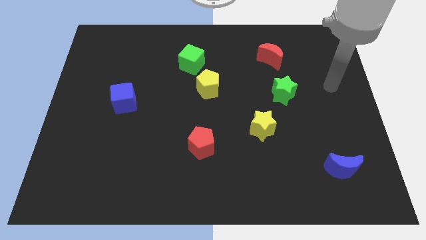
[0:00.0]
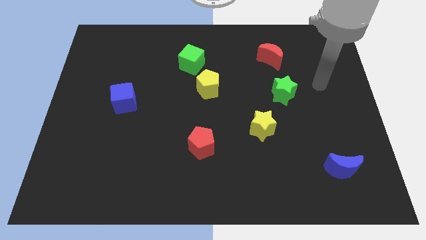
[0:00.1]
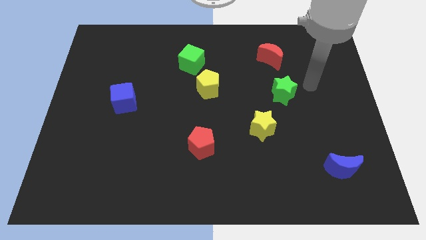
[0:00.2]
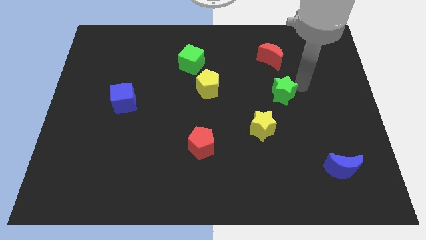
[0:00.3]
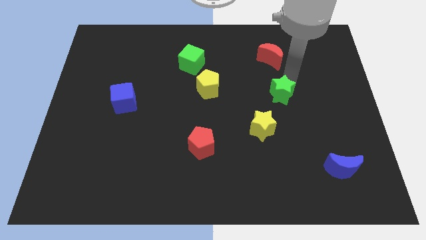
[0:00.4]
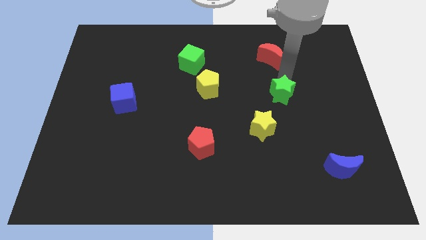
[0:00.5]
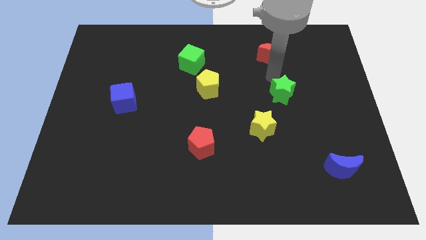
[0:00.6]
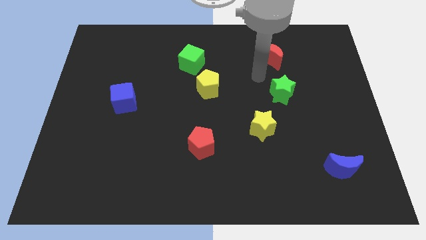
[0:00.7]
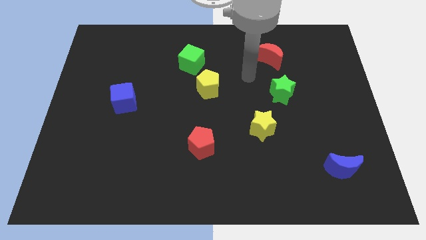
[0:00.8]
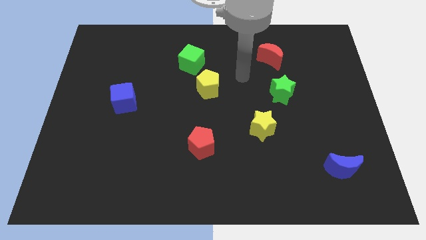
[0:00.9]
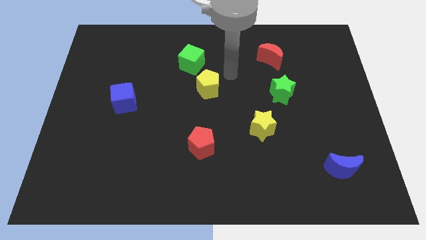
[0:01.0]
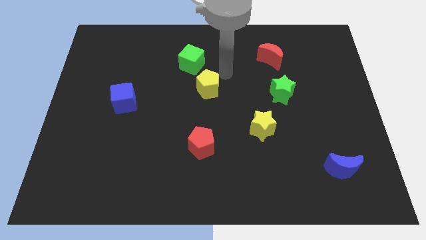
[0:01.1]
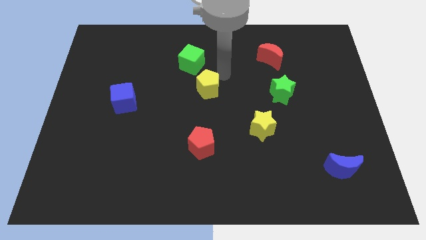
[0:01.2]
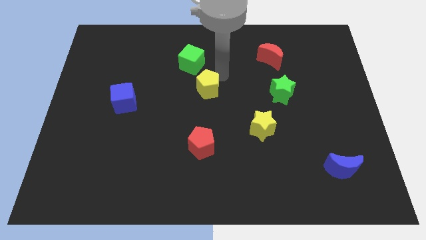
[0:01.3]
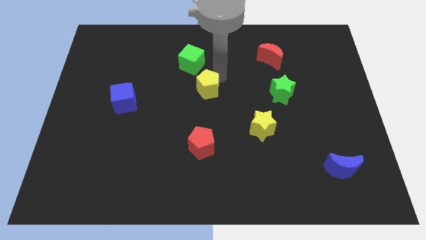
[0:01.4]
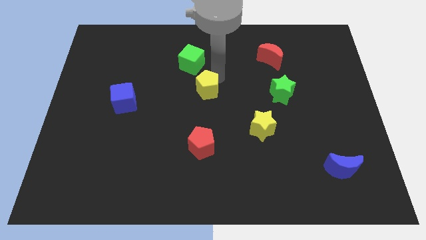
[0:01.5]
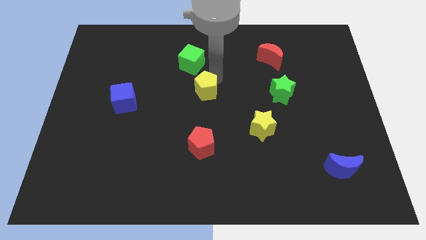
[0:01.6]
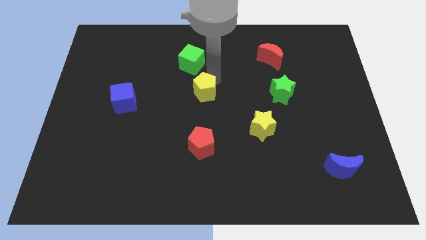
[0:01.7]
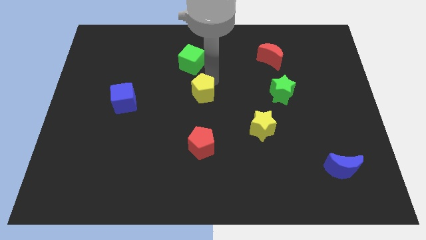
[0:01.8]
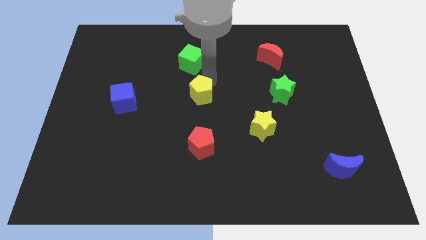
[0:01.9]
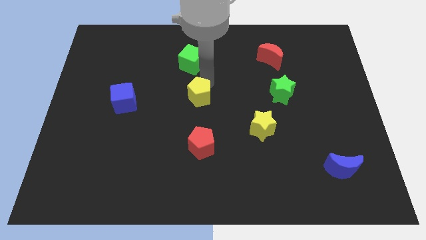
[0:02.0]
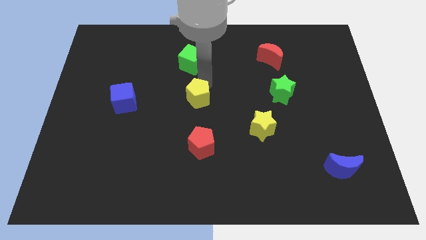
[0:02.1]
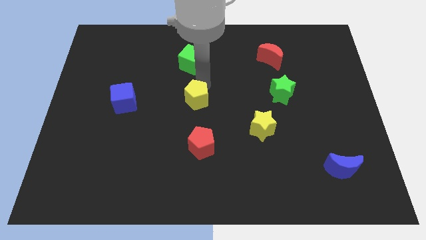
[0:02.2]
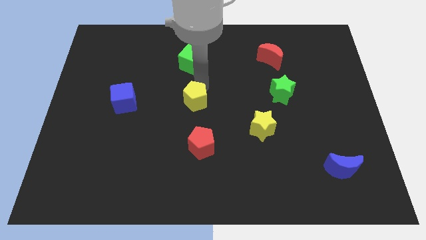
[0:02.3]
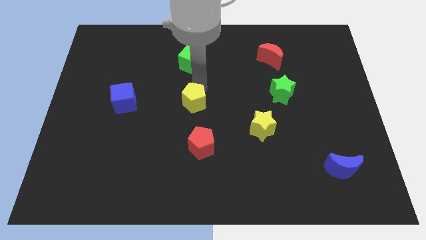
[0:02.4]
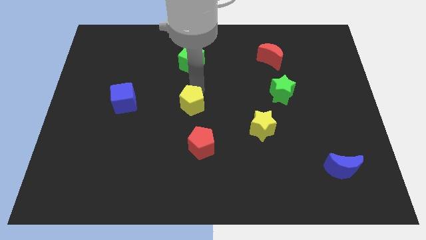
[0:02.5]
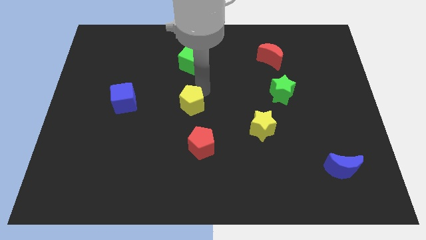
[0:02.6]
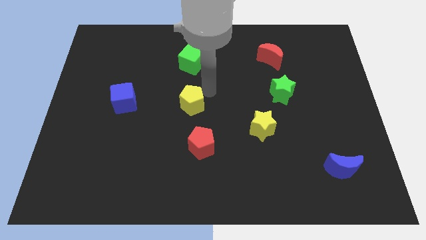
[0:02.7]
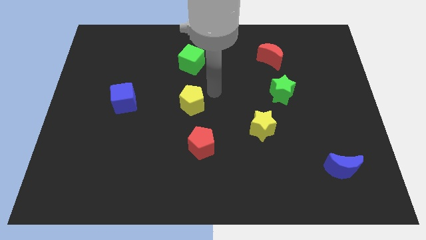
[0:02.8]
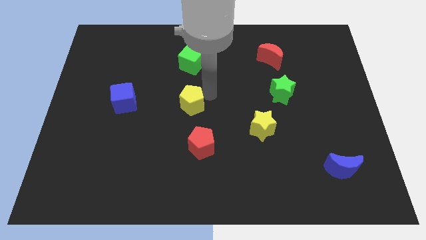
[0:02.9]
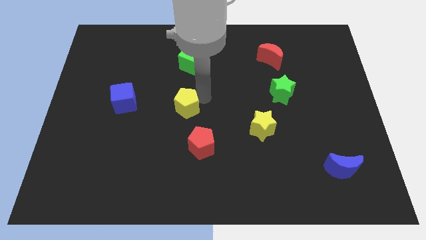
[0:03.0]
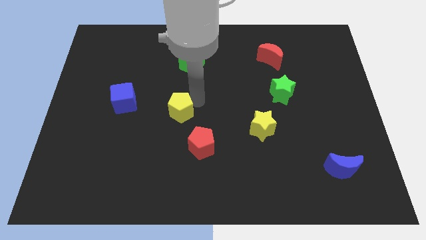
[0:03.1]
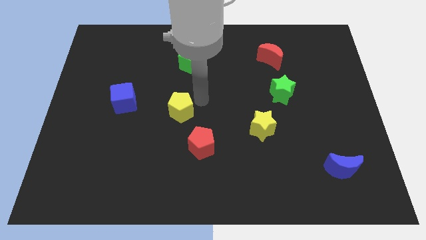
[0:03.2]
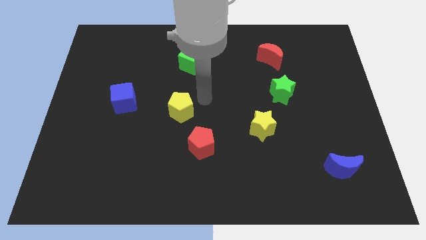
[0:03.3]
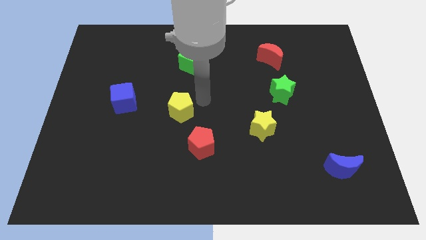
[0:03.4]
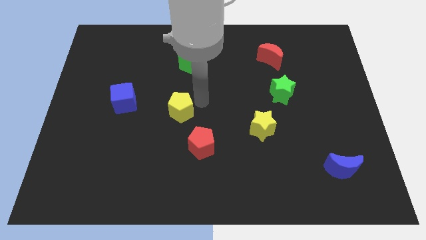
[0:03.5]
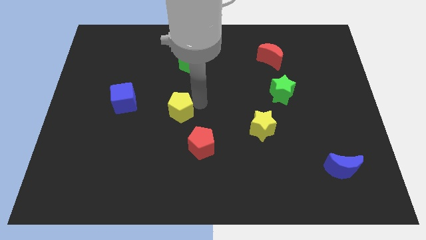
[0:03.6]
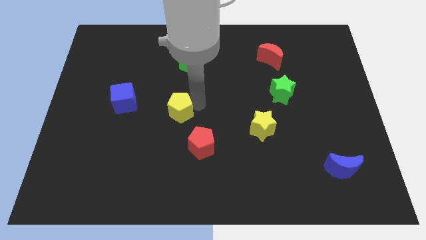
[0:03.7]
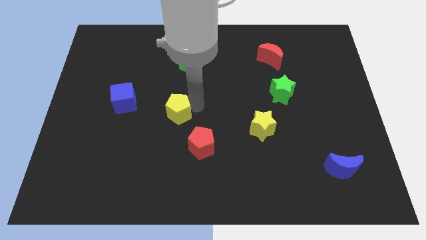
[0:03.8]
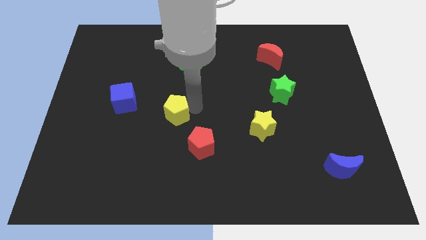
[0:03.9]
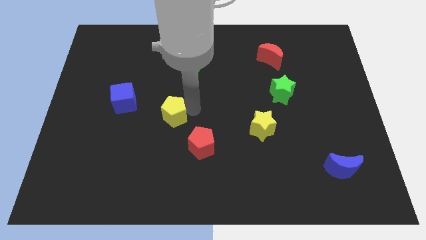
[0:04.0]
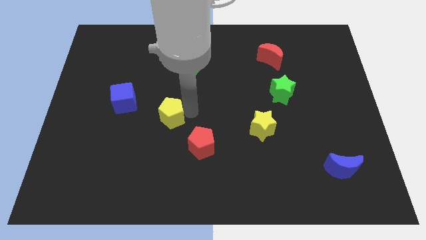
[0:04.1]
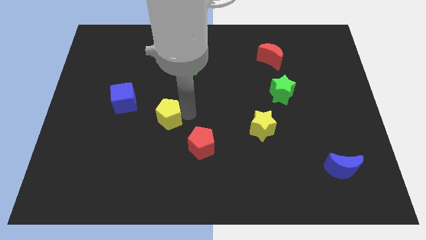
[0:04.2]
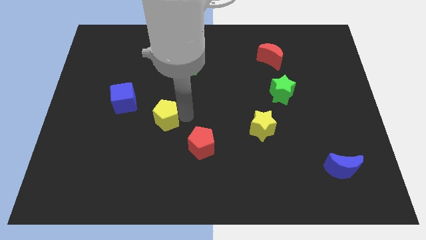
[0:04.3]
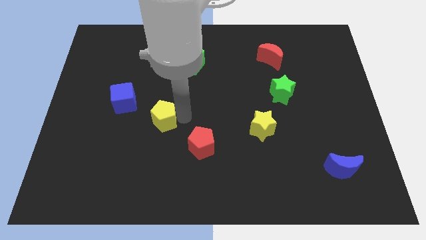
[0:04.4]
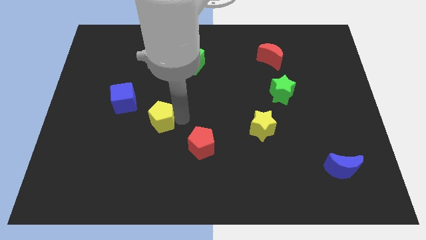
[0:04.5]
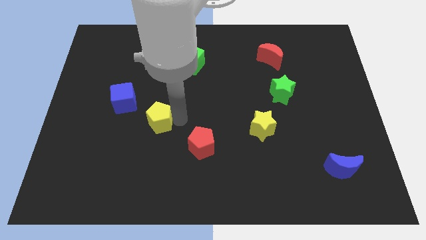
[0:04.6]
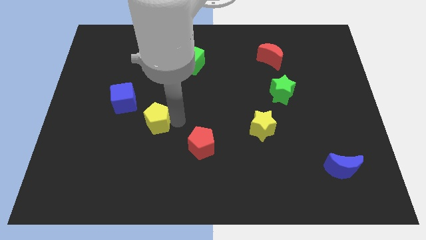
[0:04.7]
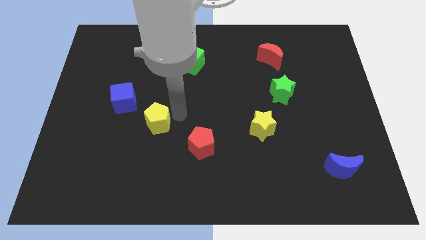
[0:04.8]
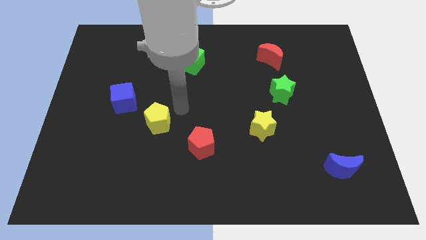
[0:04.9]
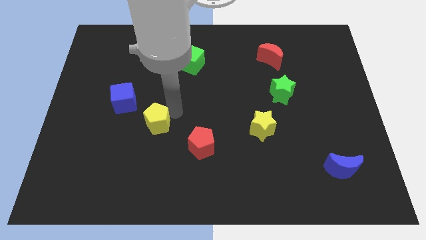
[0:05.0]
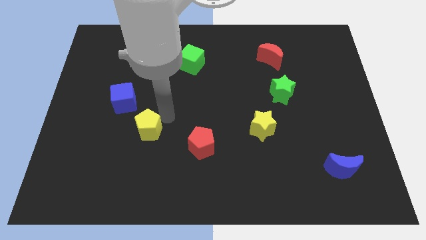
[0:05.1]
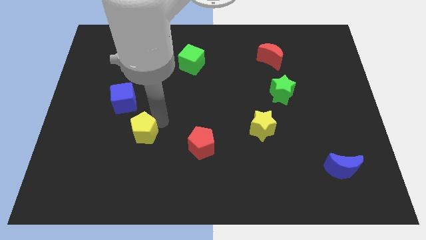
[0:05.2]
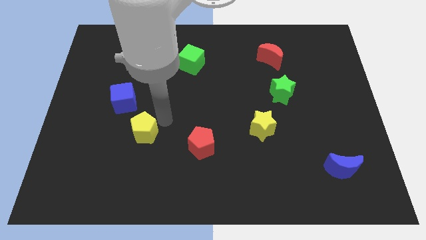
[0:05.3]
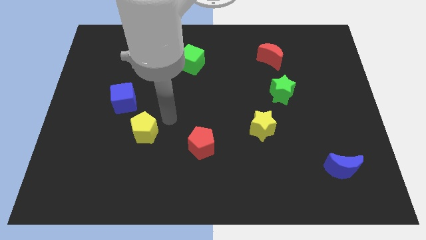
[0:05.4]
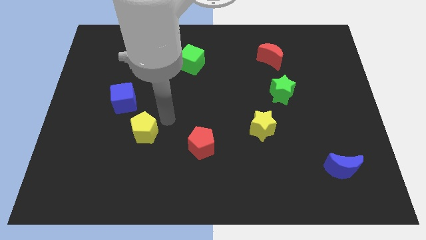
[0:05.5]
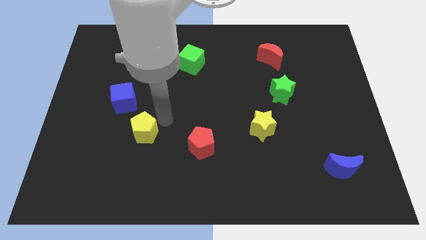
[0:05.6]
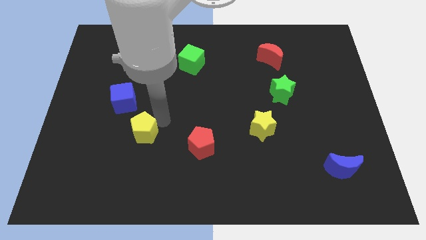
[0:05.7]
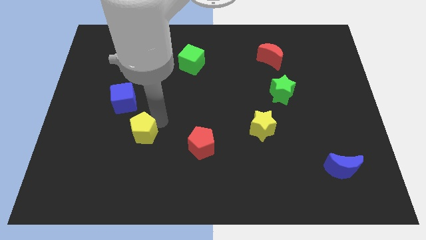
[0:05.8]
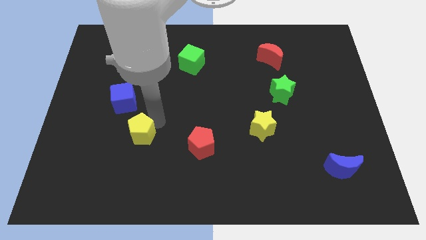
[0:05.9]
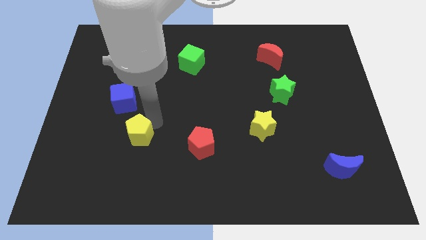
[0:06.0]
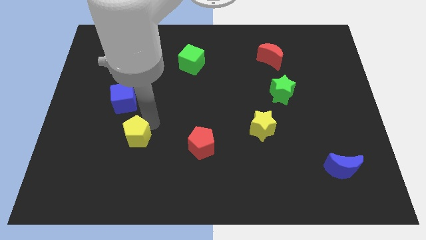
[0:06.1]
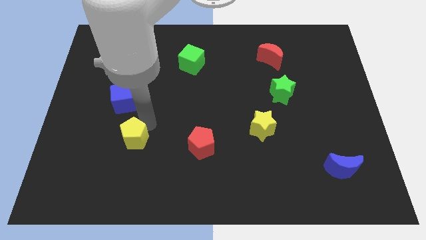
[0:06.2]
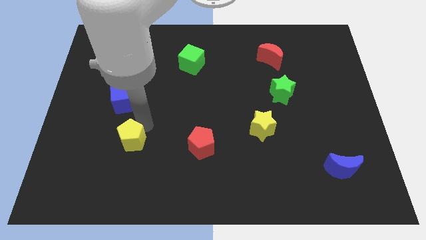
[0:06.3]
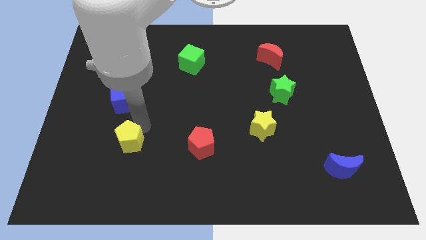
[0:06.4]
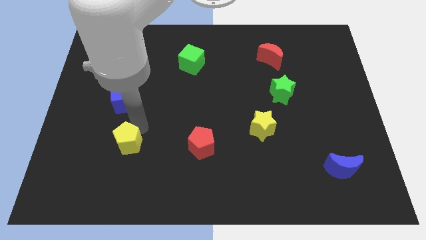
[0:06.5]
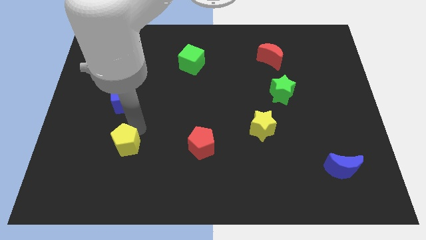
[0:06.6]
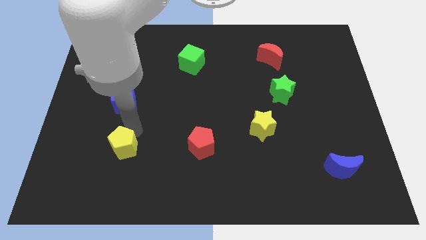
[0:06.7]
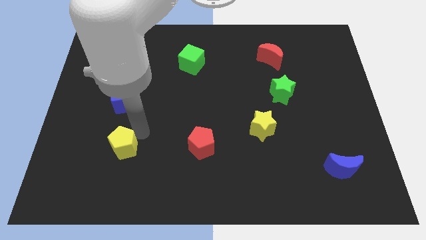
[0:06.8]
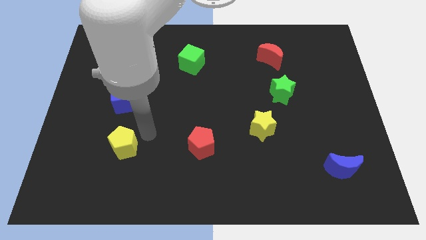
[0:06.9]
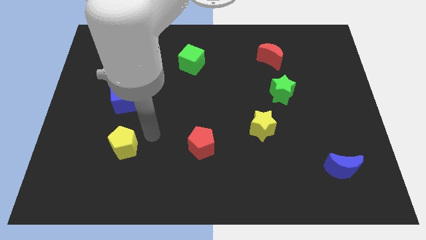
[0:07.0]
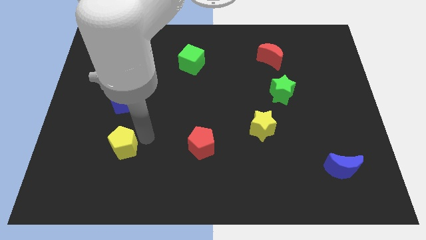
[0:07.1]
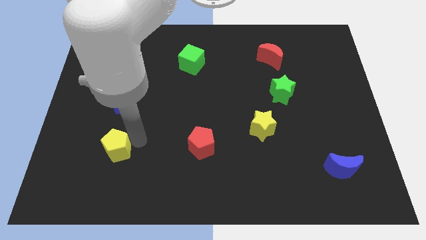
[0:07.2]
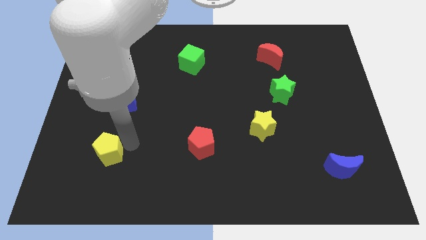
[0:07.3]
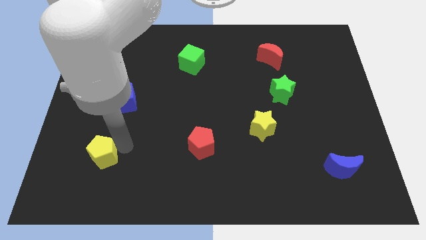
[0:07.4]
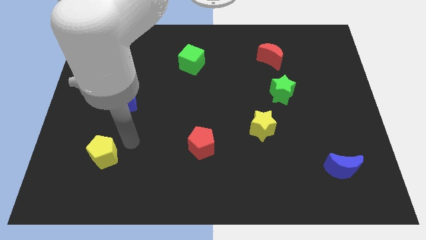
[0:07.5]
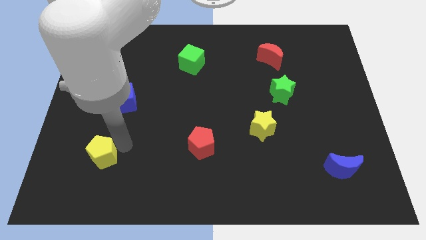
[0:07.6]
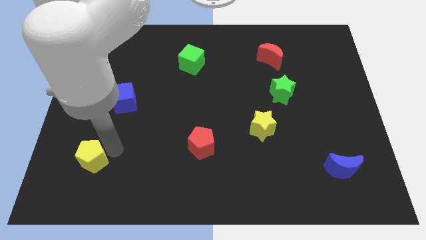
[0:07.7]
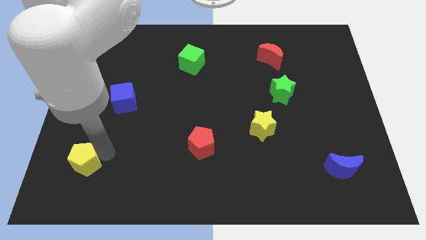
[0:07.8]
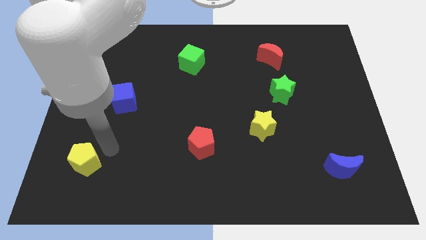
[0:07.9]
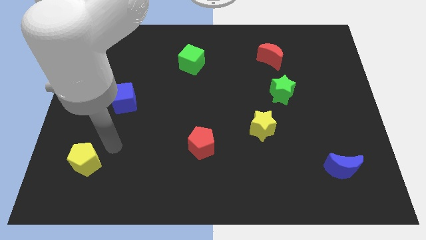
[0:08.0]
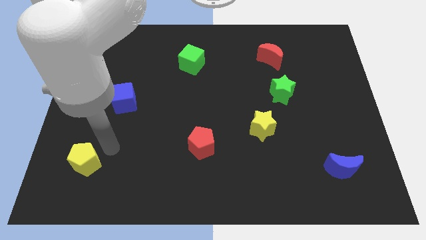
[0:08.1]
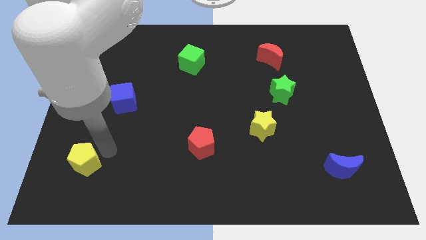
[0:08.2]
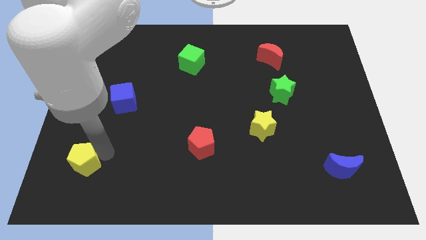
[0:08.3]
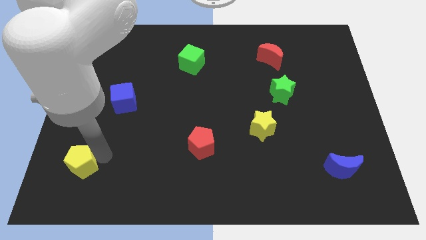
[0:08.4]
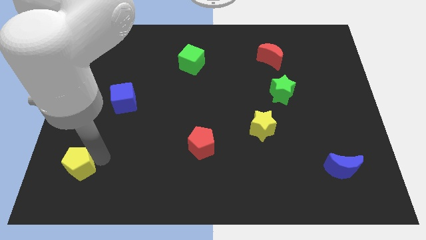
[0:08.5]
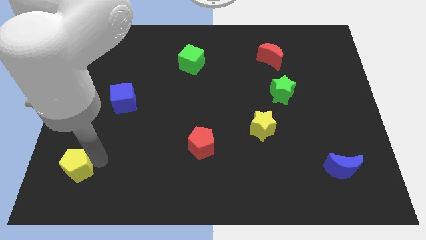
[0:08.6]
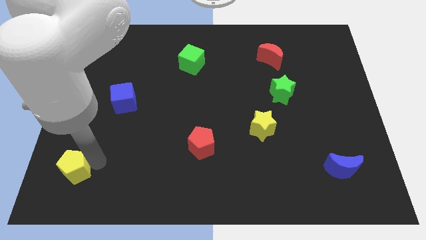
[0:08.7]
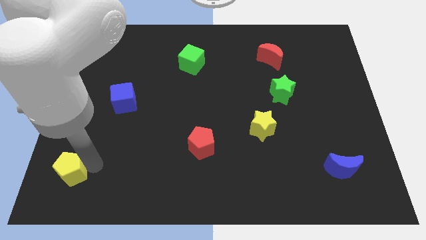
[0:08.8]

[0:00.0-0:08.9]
slide the yellow pentagon to the bottom left of the board
